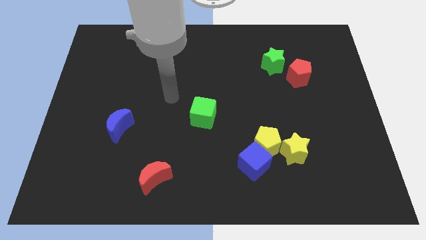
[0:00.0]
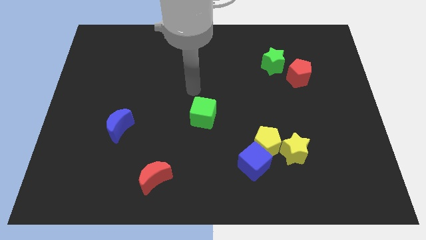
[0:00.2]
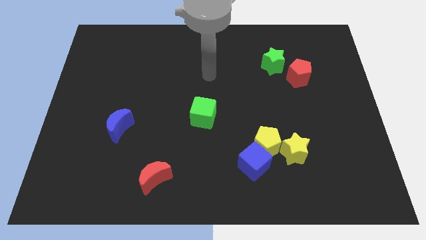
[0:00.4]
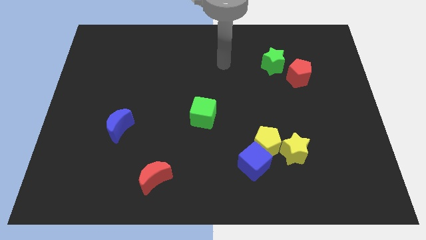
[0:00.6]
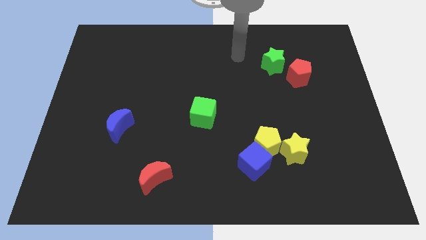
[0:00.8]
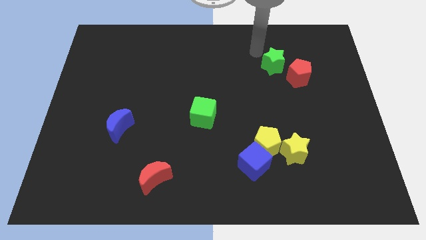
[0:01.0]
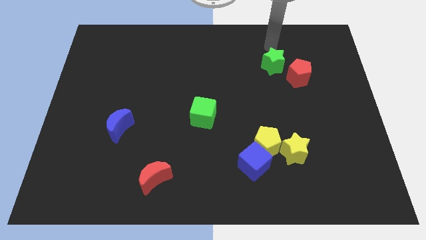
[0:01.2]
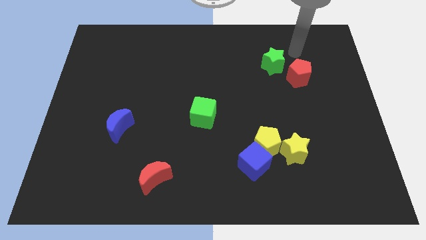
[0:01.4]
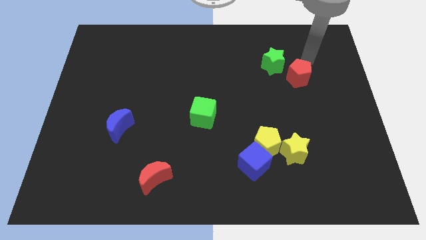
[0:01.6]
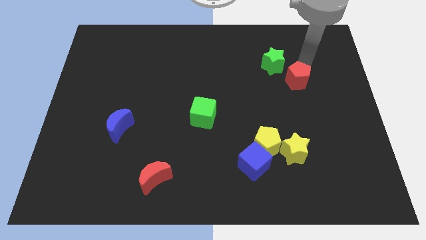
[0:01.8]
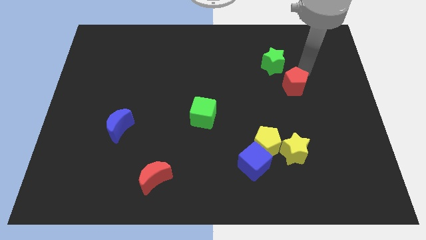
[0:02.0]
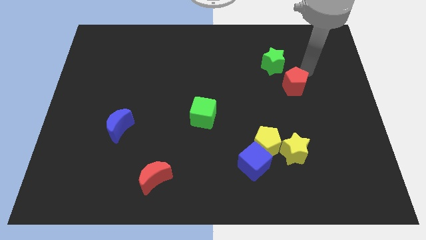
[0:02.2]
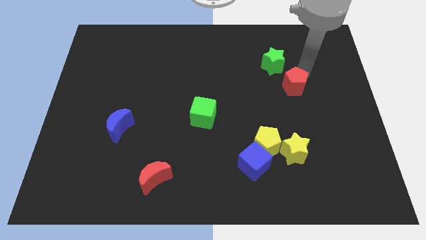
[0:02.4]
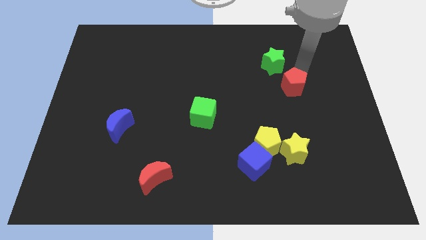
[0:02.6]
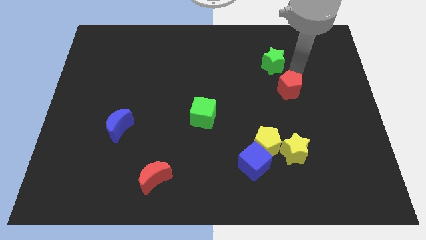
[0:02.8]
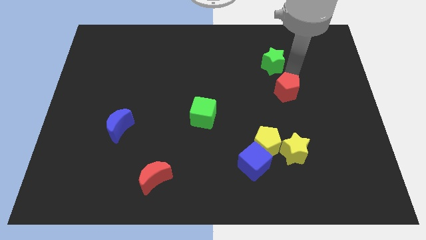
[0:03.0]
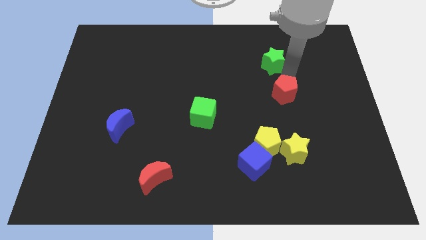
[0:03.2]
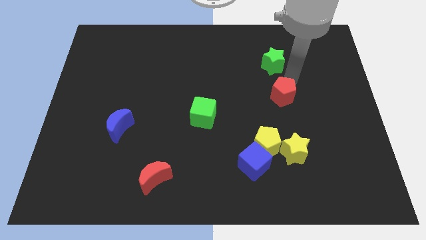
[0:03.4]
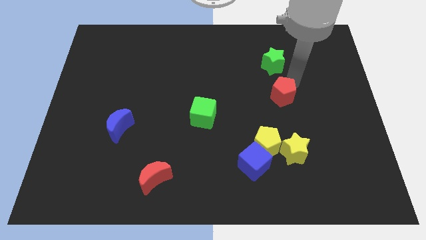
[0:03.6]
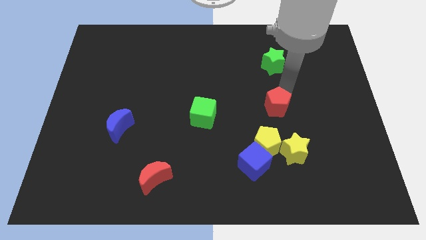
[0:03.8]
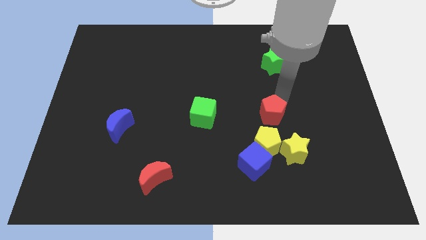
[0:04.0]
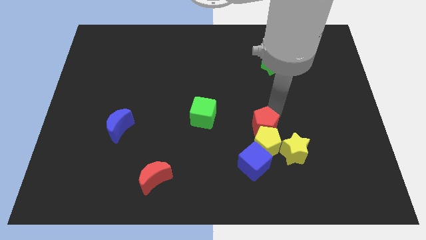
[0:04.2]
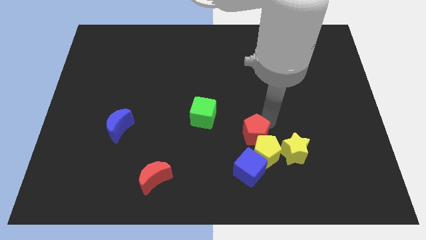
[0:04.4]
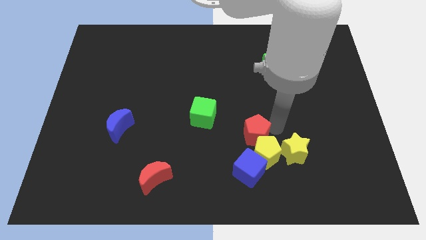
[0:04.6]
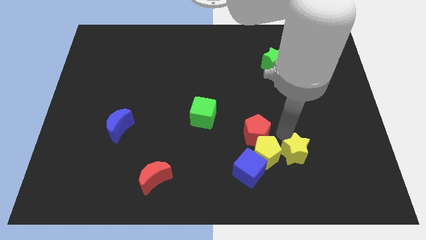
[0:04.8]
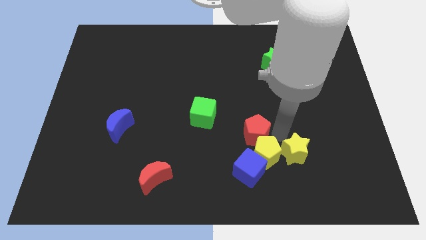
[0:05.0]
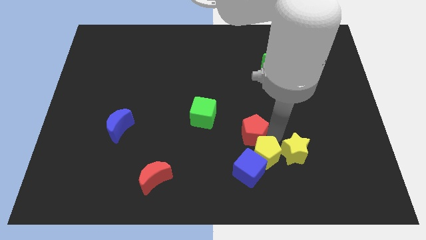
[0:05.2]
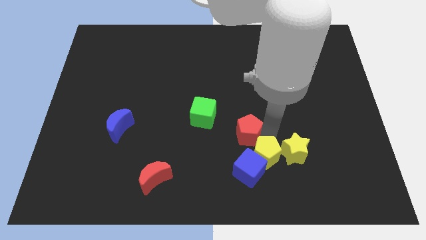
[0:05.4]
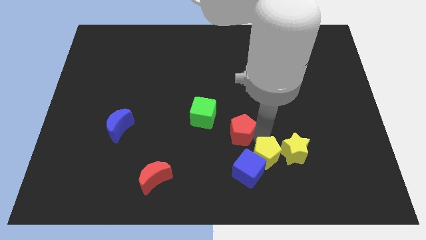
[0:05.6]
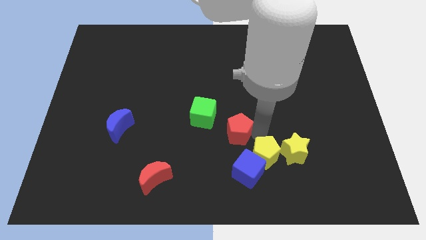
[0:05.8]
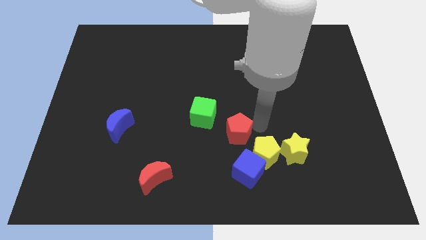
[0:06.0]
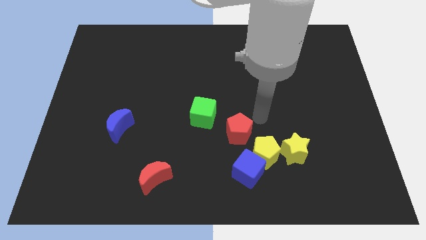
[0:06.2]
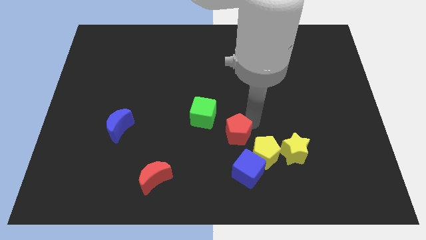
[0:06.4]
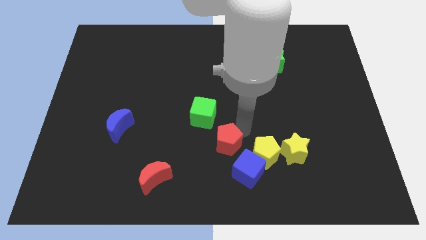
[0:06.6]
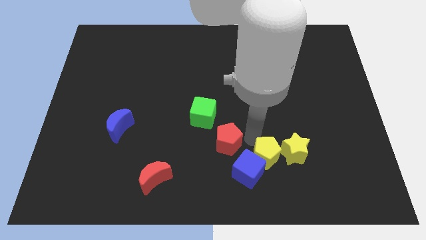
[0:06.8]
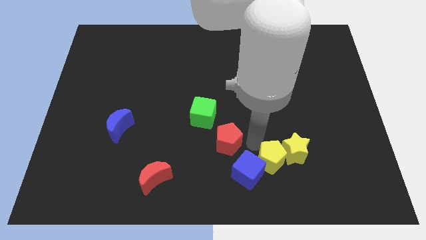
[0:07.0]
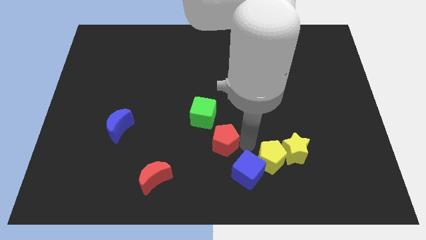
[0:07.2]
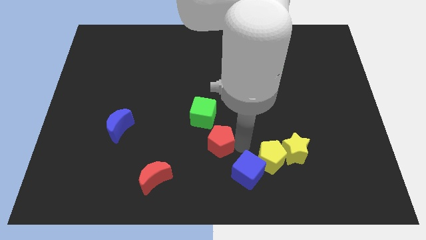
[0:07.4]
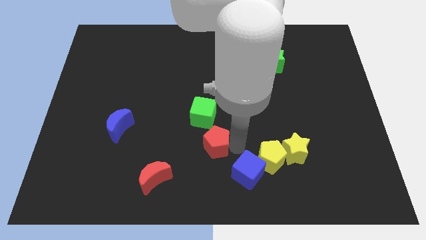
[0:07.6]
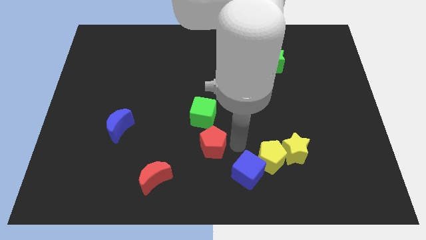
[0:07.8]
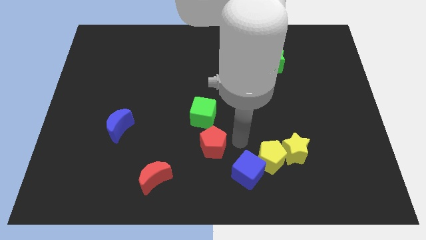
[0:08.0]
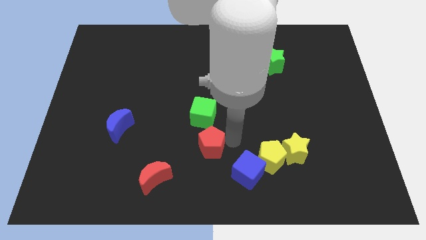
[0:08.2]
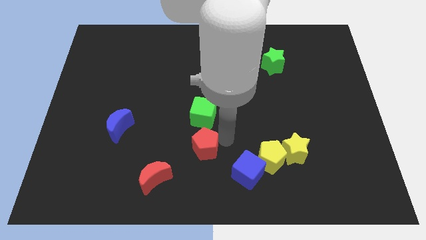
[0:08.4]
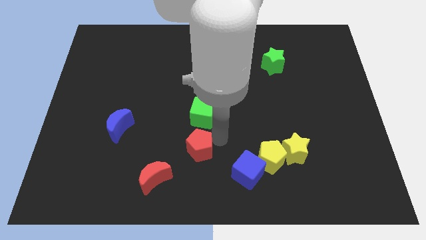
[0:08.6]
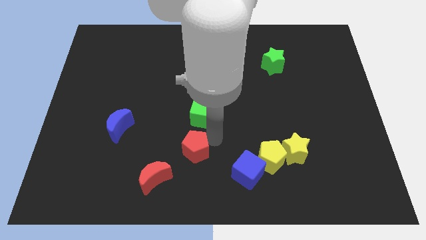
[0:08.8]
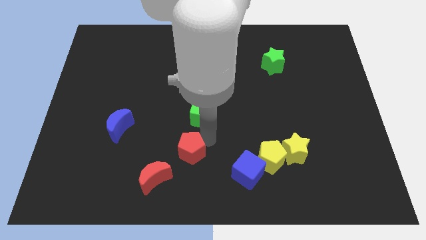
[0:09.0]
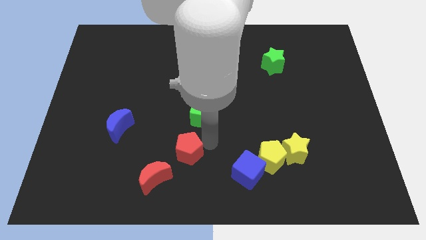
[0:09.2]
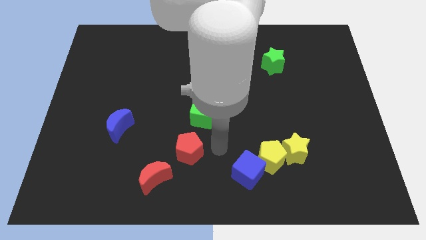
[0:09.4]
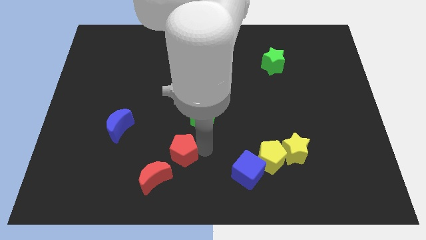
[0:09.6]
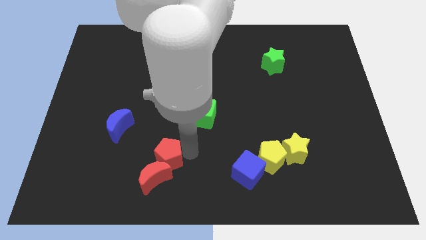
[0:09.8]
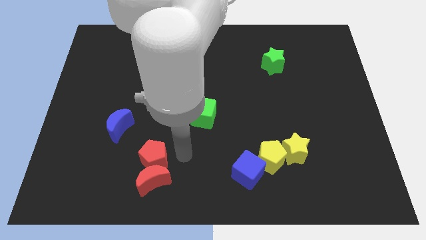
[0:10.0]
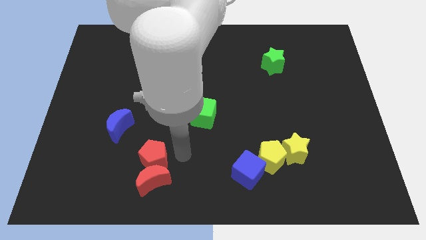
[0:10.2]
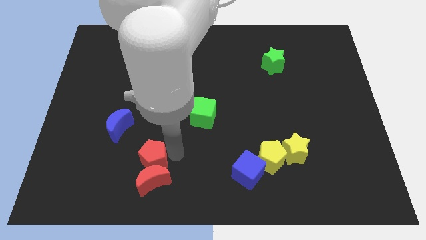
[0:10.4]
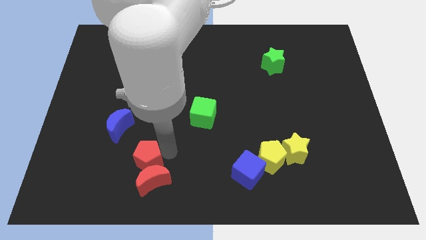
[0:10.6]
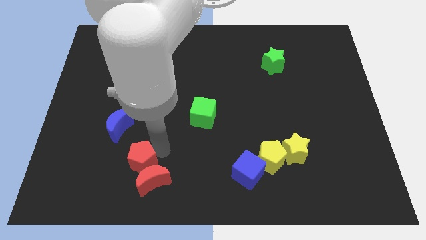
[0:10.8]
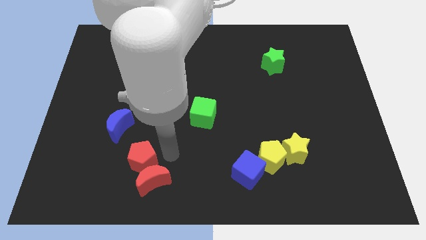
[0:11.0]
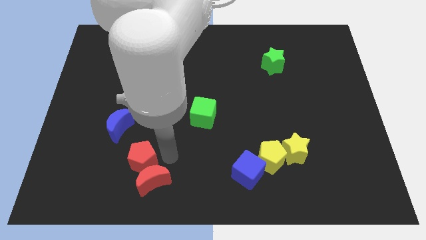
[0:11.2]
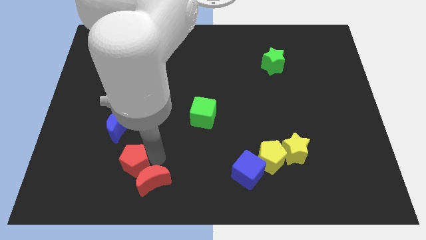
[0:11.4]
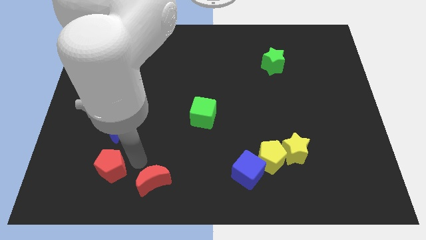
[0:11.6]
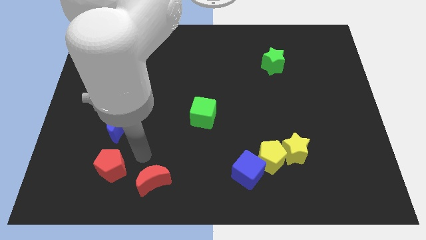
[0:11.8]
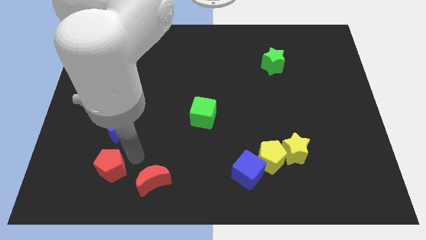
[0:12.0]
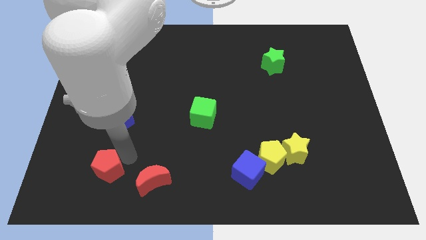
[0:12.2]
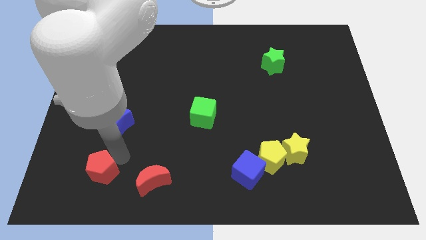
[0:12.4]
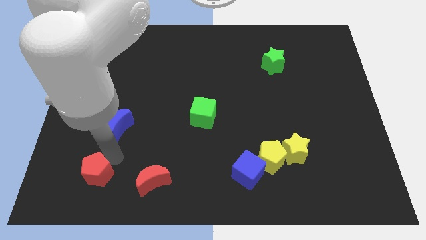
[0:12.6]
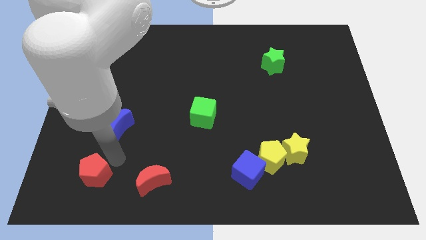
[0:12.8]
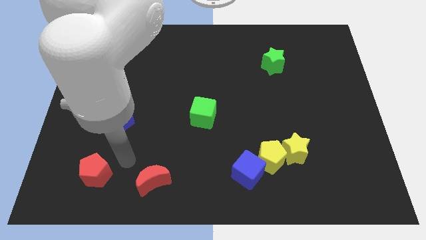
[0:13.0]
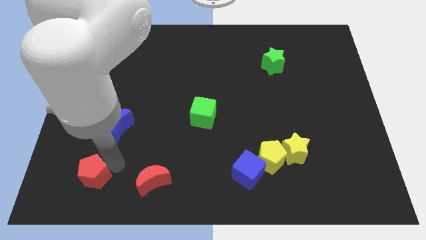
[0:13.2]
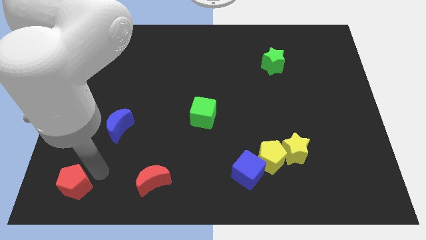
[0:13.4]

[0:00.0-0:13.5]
slide the red pentagon to the bottom left of the board

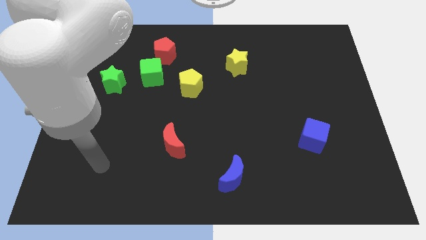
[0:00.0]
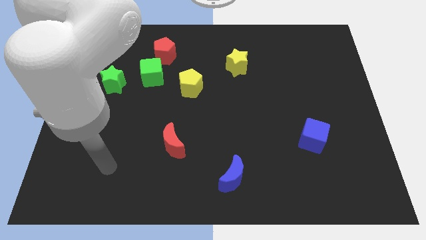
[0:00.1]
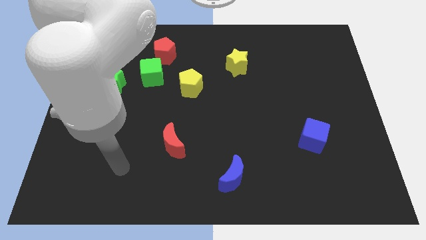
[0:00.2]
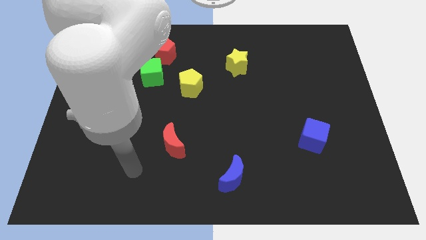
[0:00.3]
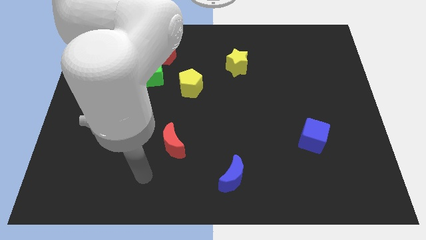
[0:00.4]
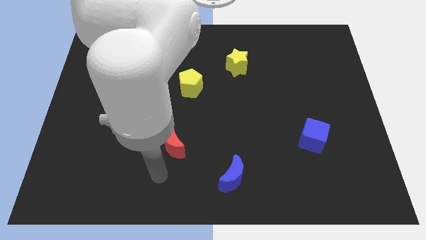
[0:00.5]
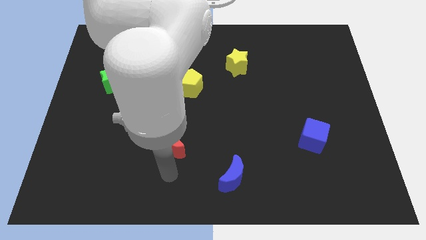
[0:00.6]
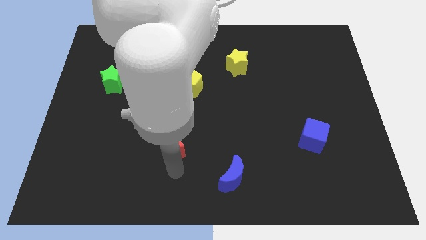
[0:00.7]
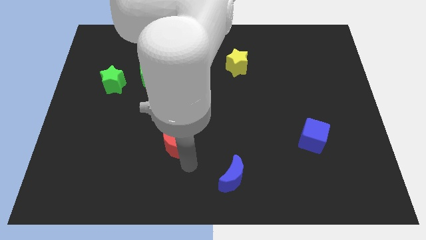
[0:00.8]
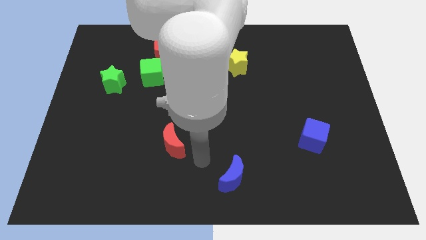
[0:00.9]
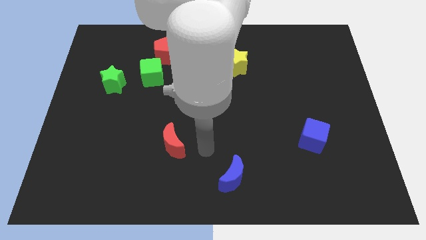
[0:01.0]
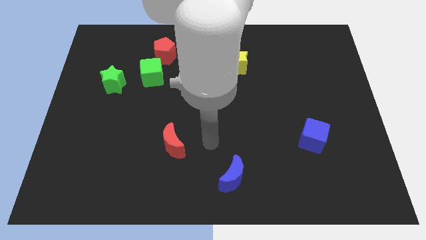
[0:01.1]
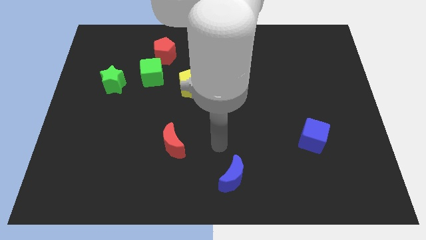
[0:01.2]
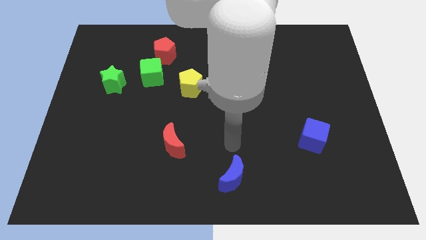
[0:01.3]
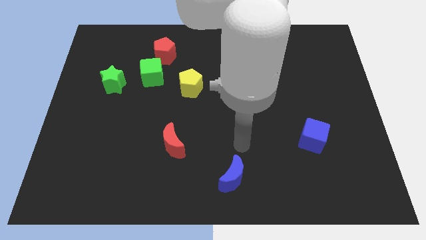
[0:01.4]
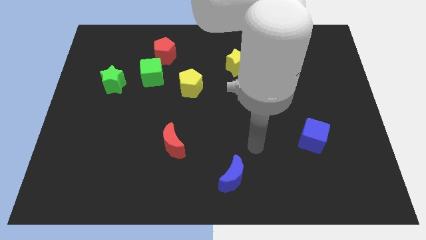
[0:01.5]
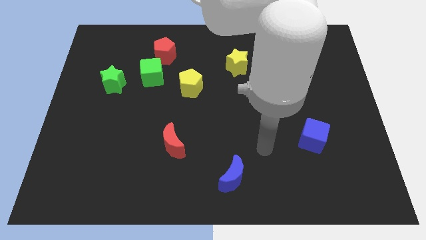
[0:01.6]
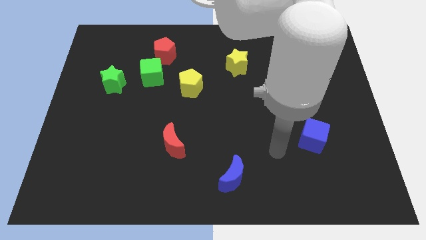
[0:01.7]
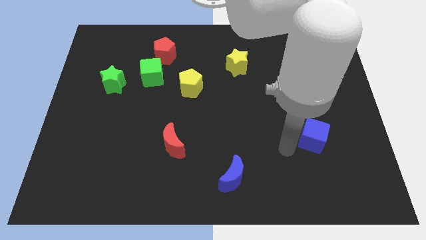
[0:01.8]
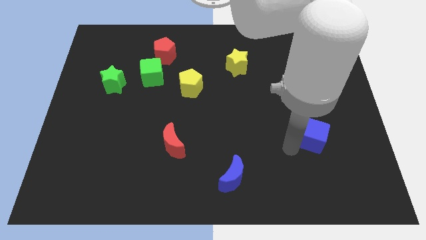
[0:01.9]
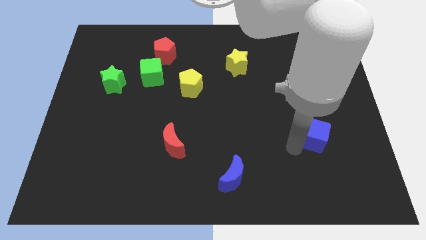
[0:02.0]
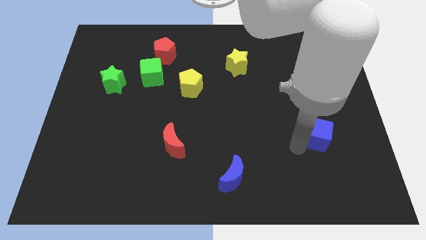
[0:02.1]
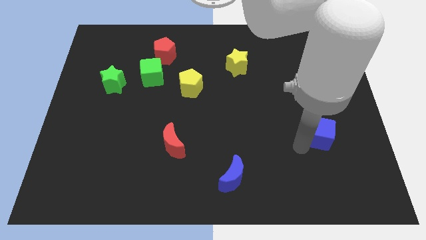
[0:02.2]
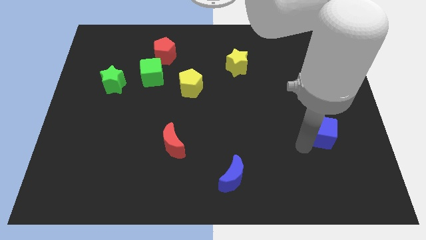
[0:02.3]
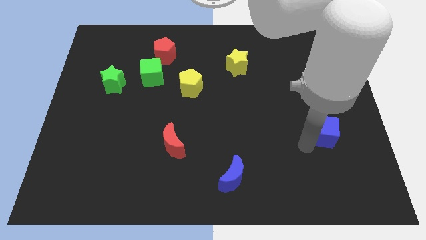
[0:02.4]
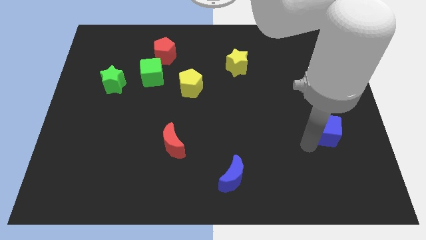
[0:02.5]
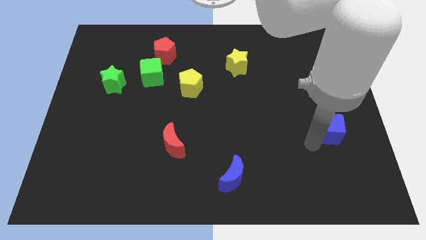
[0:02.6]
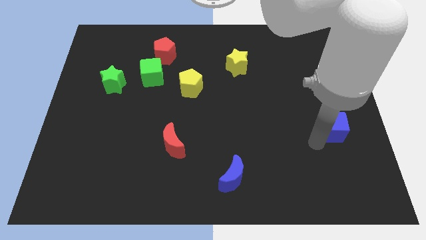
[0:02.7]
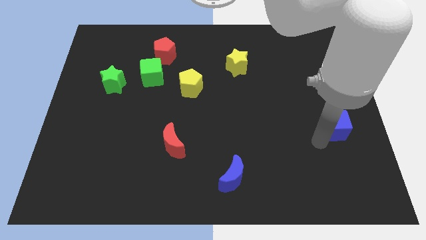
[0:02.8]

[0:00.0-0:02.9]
put the blue cube to the center right
